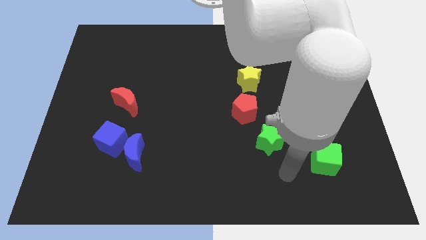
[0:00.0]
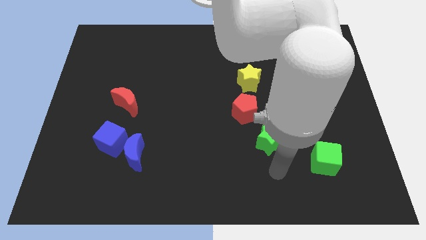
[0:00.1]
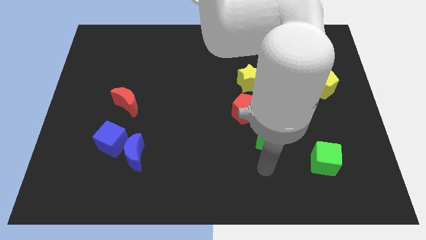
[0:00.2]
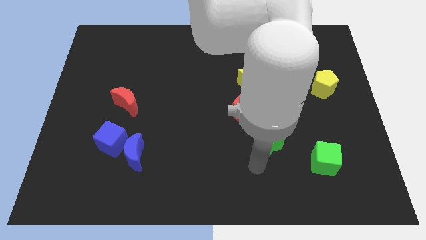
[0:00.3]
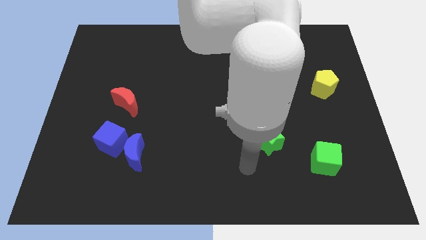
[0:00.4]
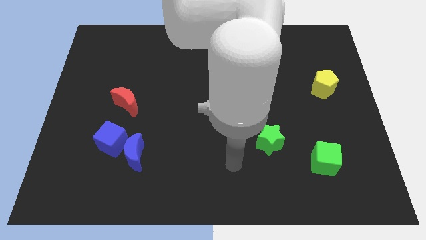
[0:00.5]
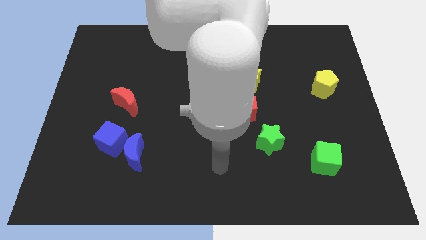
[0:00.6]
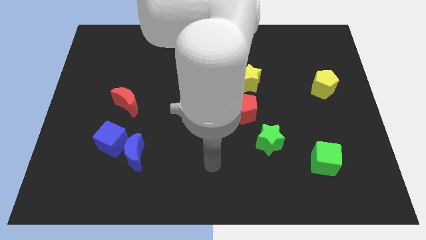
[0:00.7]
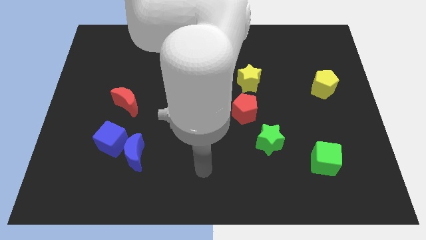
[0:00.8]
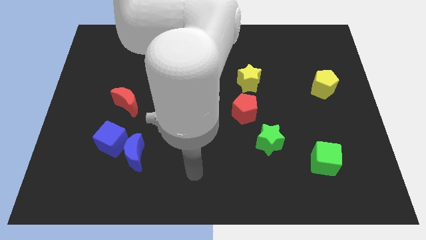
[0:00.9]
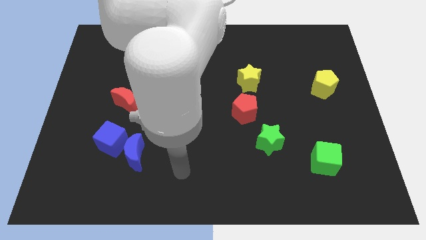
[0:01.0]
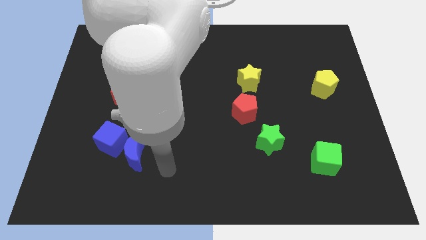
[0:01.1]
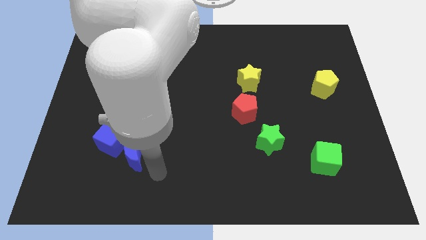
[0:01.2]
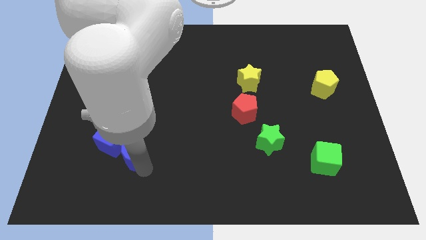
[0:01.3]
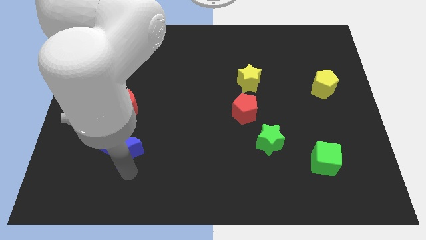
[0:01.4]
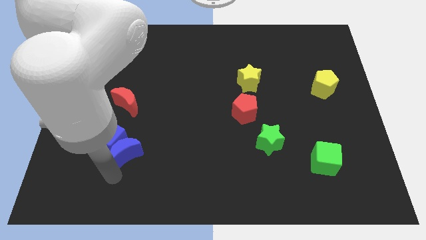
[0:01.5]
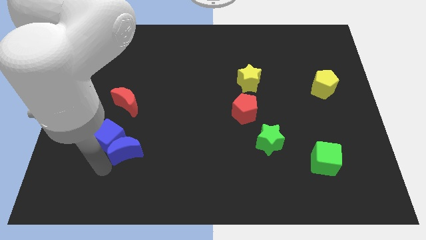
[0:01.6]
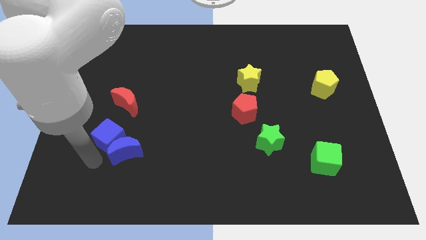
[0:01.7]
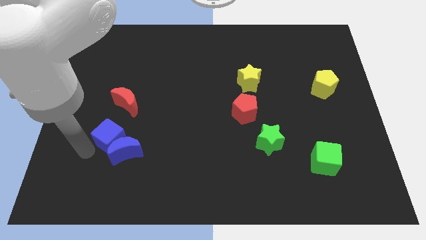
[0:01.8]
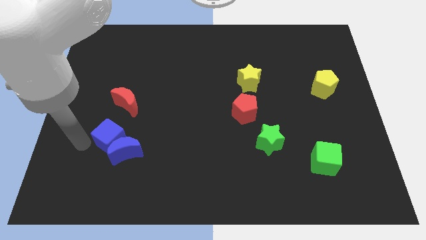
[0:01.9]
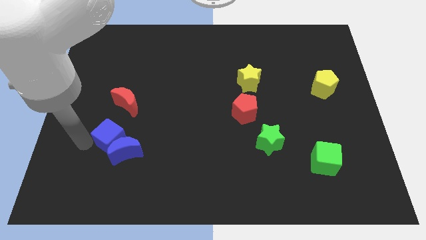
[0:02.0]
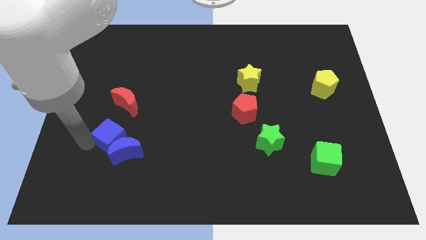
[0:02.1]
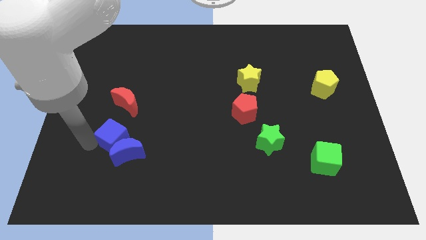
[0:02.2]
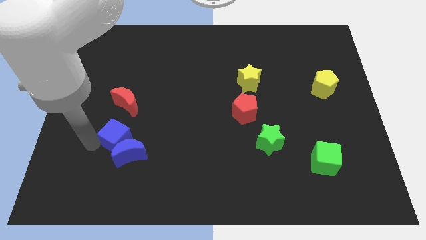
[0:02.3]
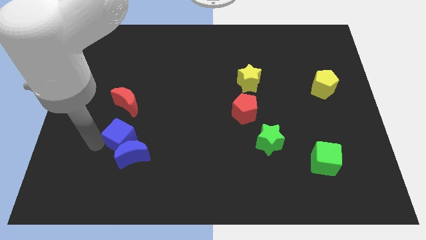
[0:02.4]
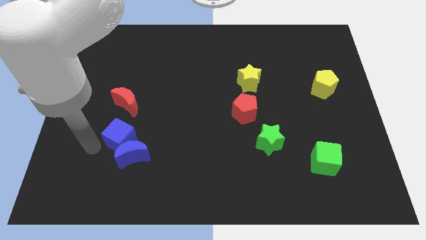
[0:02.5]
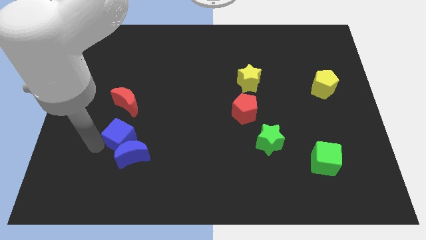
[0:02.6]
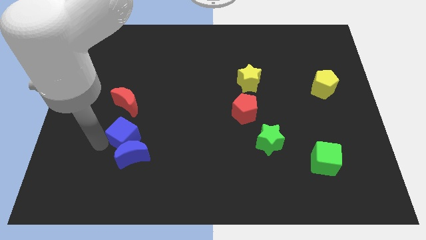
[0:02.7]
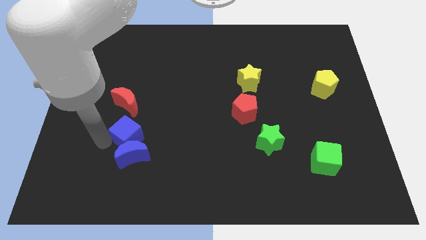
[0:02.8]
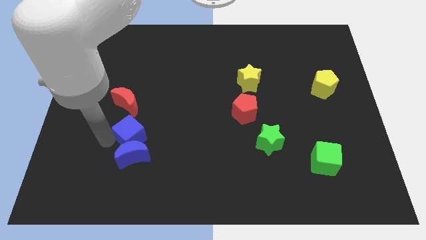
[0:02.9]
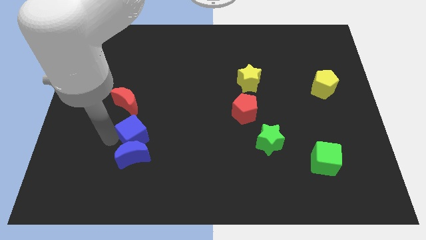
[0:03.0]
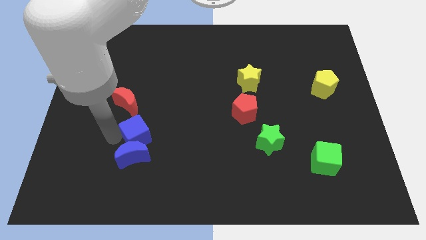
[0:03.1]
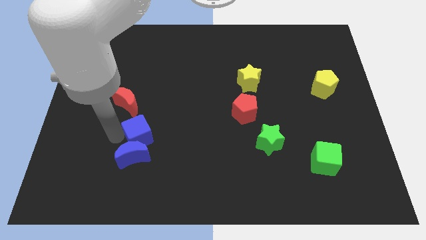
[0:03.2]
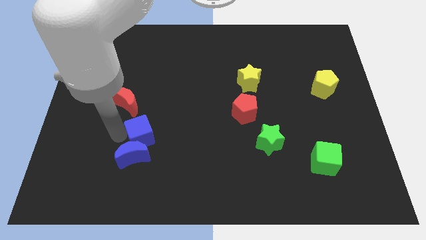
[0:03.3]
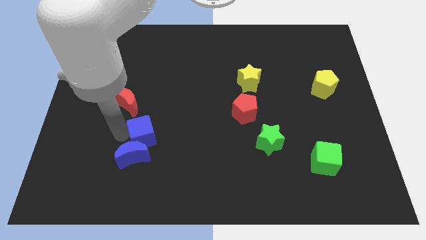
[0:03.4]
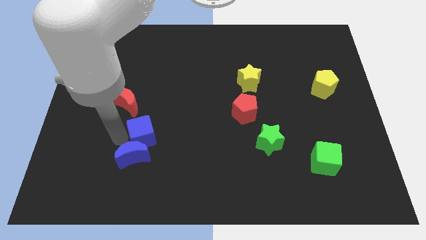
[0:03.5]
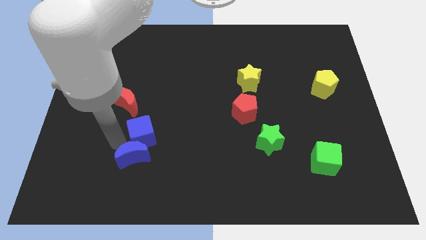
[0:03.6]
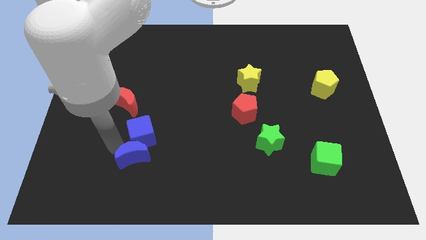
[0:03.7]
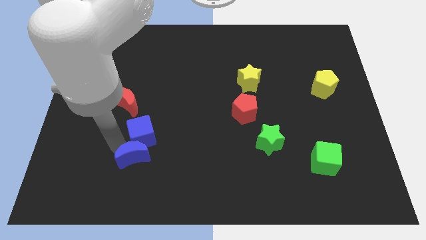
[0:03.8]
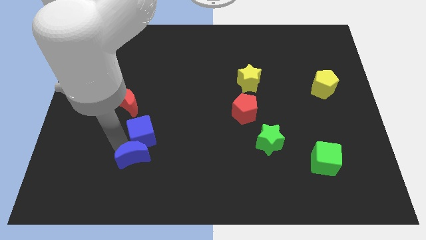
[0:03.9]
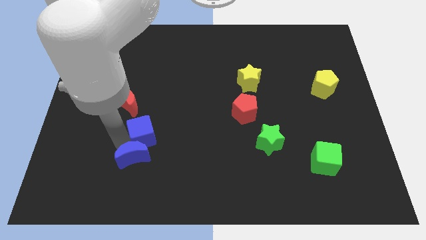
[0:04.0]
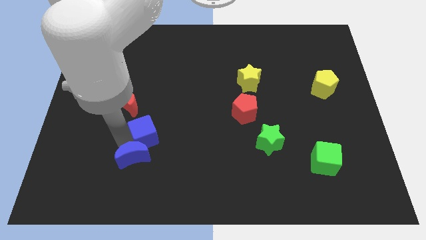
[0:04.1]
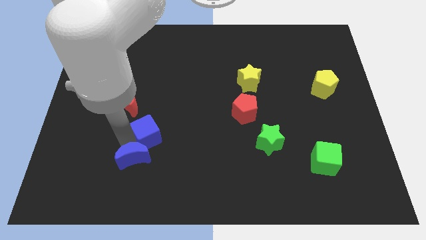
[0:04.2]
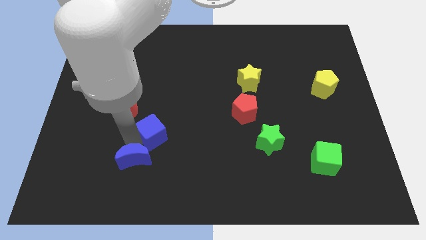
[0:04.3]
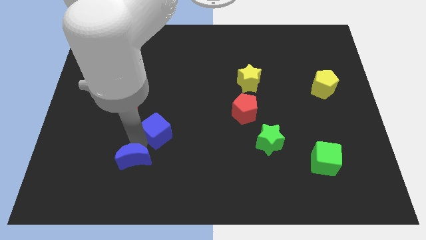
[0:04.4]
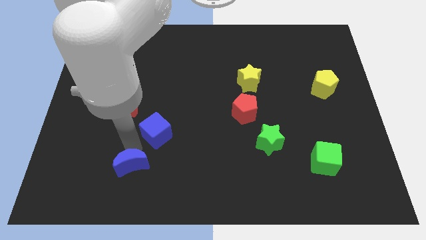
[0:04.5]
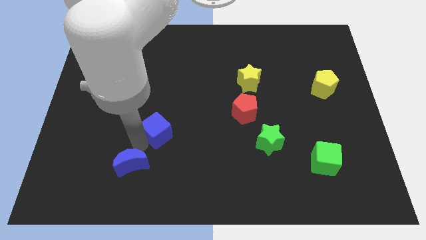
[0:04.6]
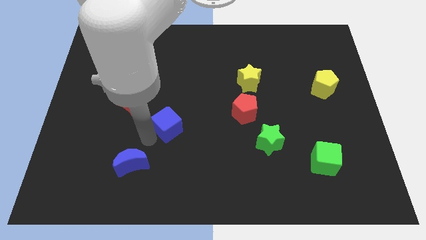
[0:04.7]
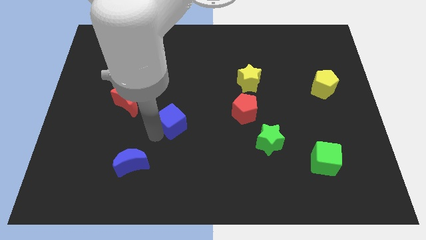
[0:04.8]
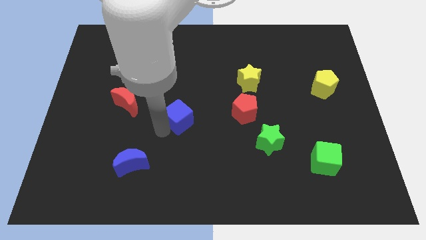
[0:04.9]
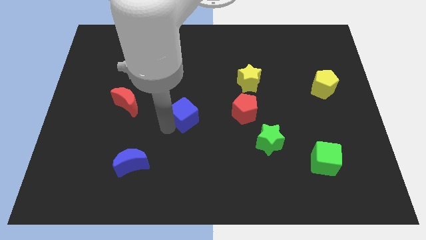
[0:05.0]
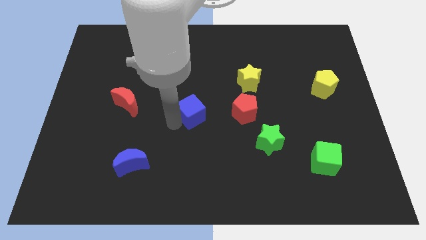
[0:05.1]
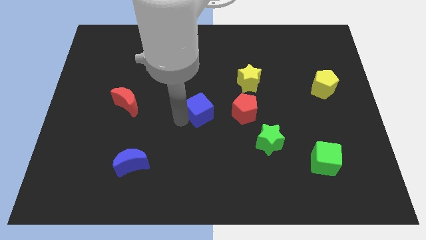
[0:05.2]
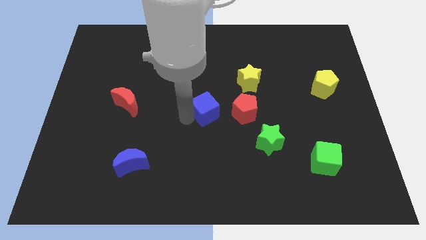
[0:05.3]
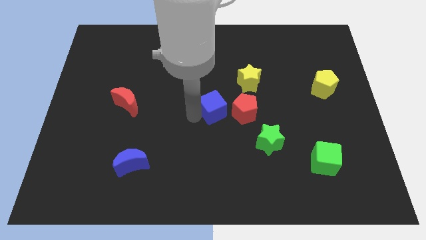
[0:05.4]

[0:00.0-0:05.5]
push the blue cube to the bottom left of the yellow star

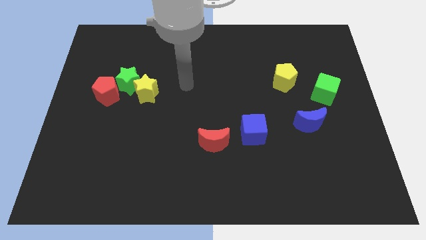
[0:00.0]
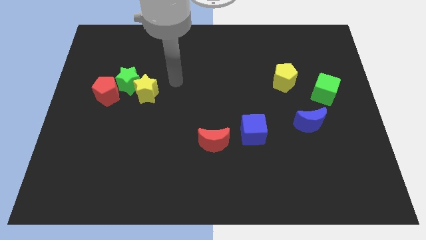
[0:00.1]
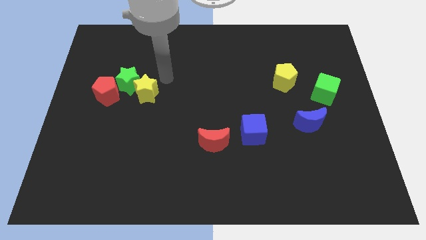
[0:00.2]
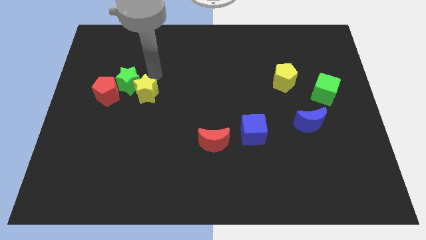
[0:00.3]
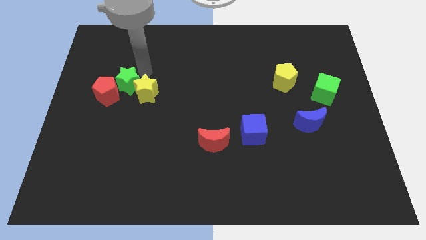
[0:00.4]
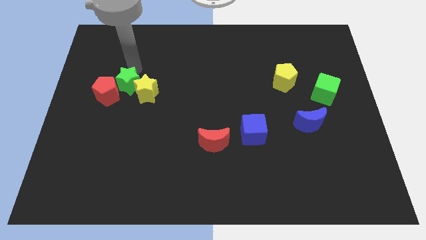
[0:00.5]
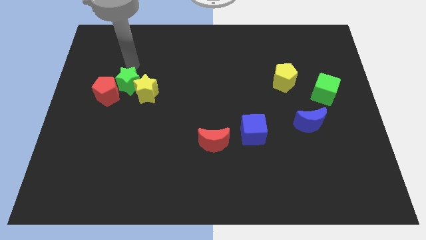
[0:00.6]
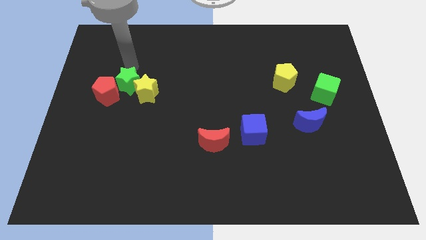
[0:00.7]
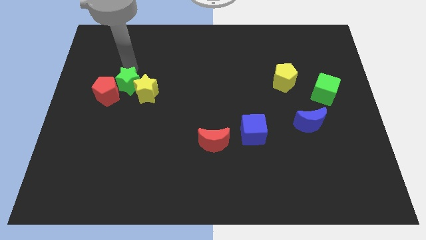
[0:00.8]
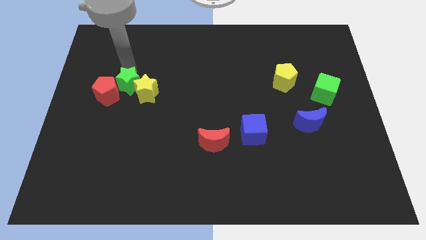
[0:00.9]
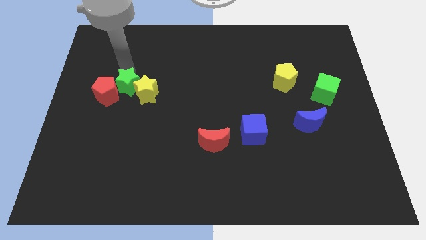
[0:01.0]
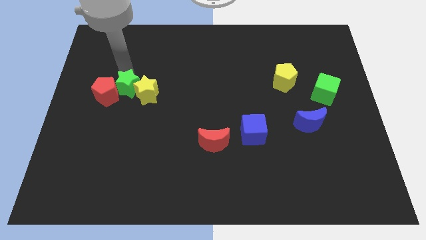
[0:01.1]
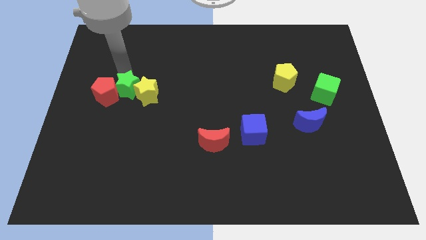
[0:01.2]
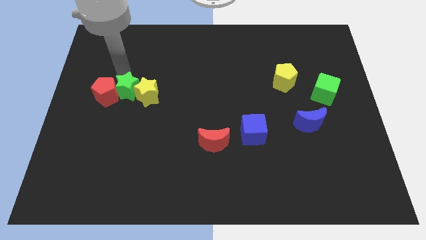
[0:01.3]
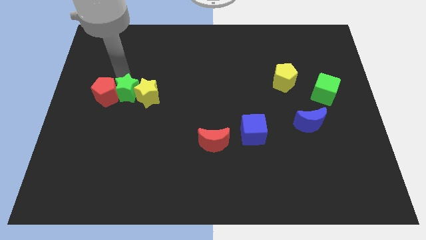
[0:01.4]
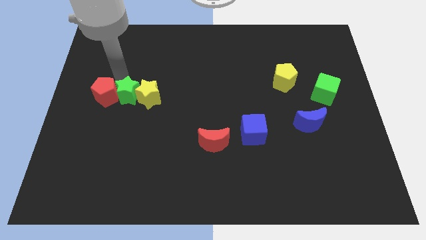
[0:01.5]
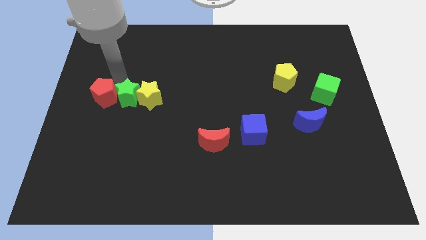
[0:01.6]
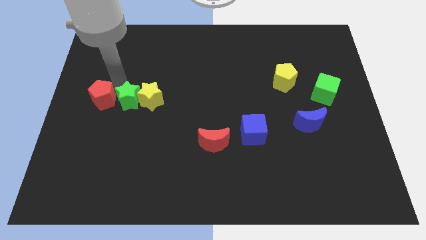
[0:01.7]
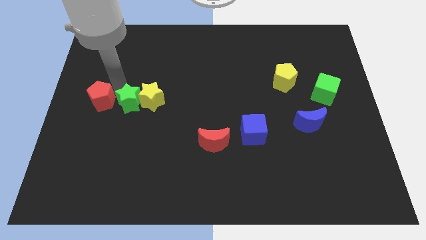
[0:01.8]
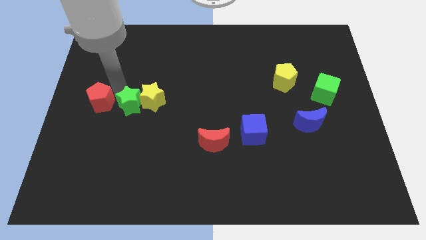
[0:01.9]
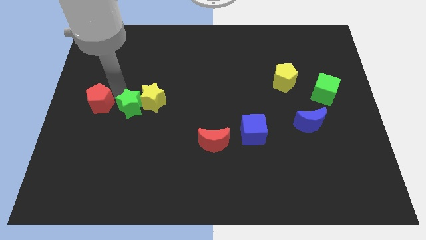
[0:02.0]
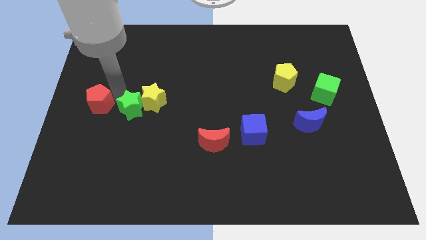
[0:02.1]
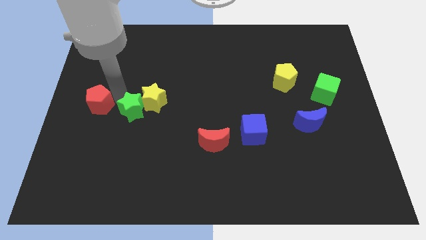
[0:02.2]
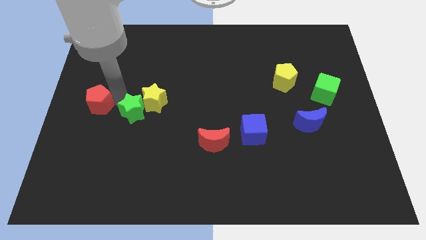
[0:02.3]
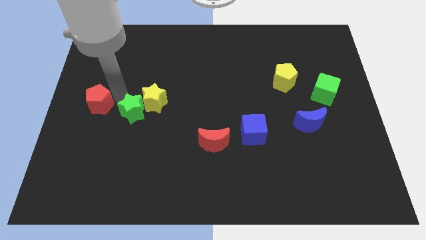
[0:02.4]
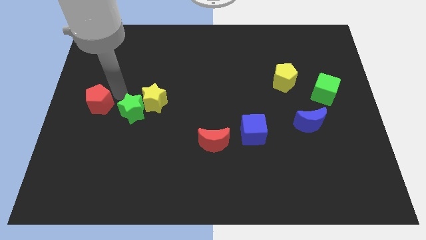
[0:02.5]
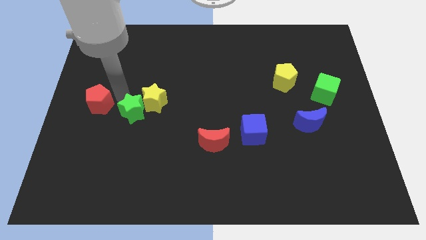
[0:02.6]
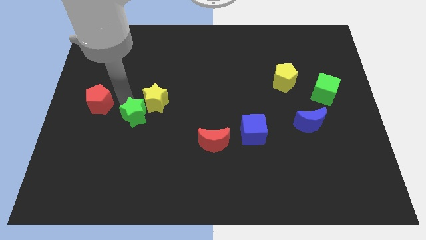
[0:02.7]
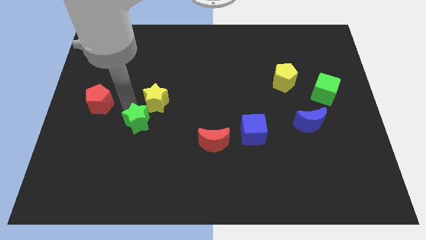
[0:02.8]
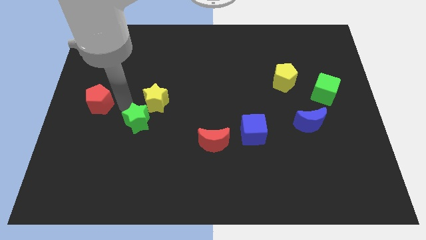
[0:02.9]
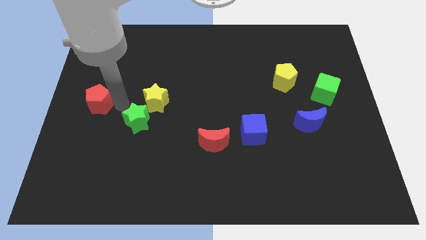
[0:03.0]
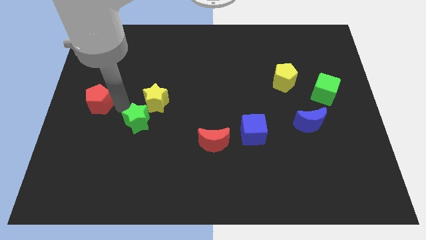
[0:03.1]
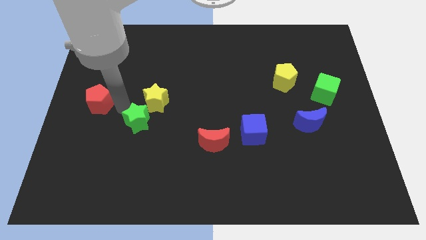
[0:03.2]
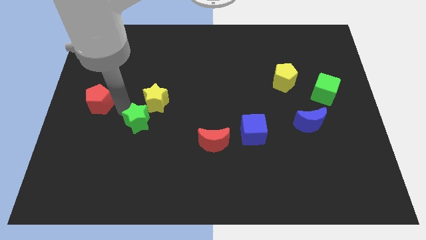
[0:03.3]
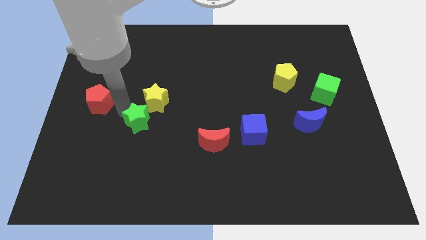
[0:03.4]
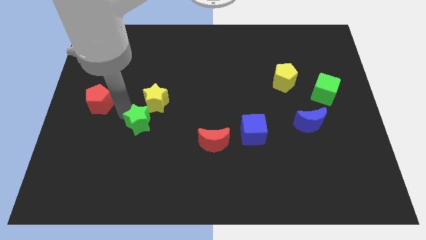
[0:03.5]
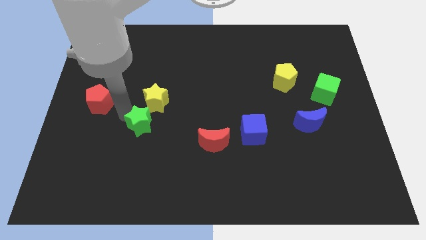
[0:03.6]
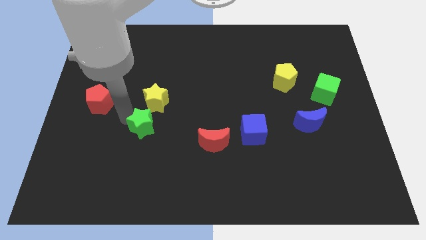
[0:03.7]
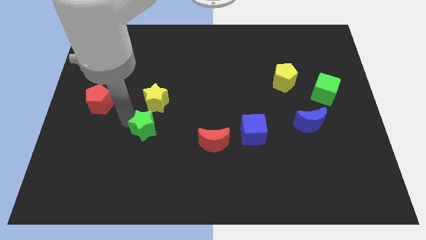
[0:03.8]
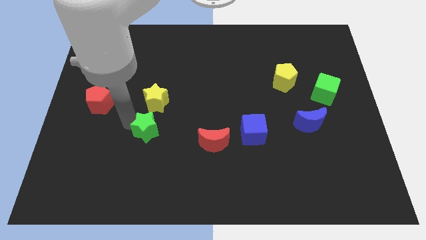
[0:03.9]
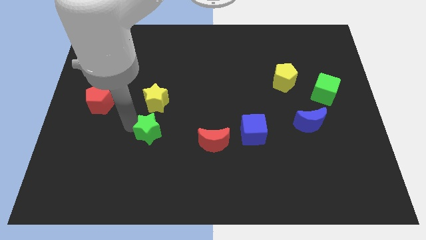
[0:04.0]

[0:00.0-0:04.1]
slide the green star left of the red moon
